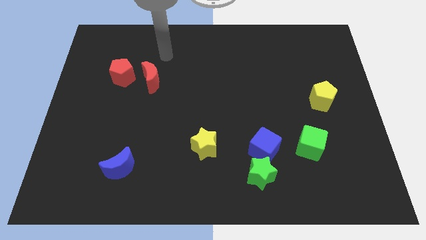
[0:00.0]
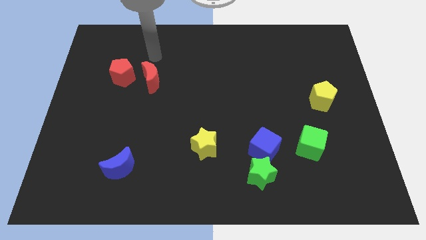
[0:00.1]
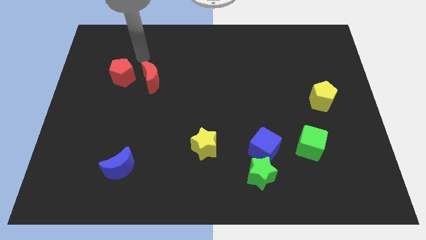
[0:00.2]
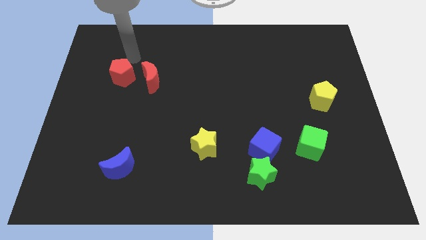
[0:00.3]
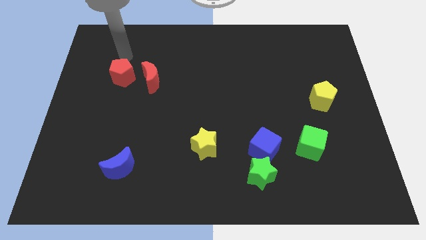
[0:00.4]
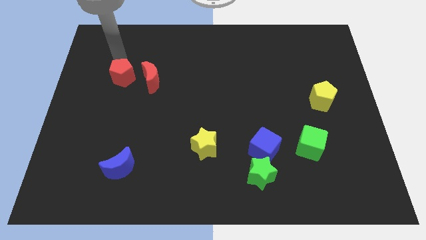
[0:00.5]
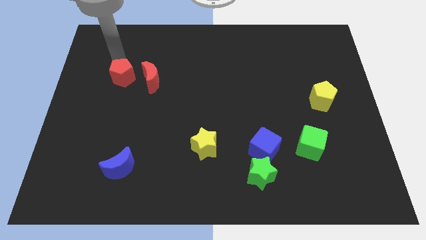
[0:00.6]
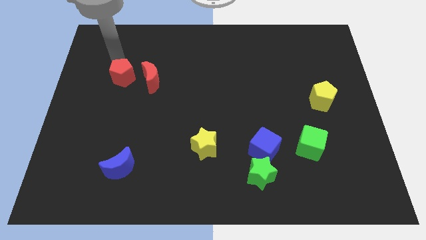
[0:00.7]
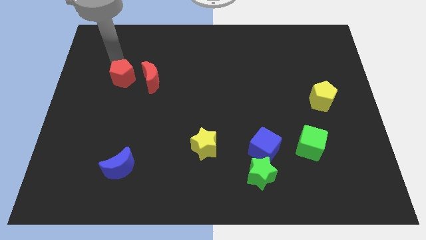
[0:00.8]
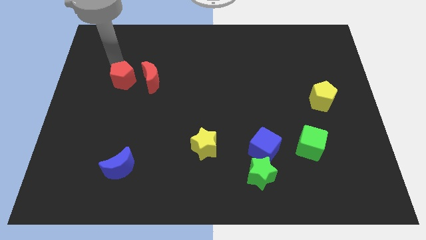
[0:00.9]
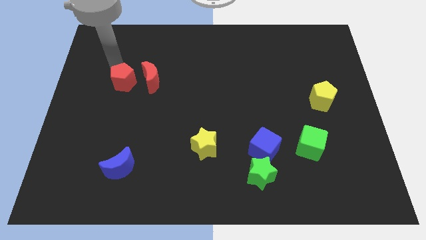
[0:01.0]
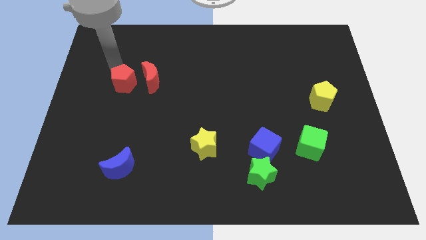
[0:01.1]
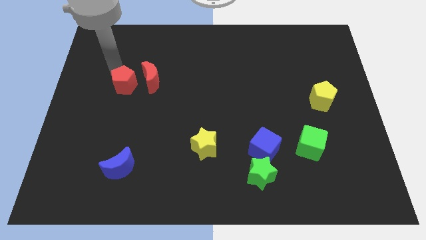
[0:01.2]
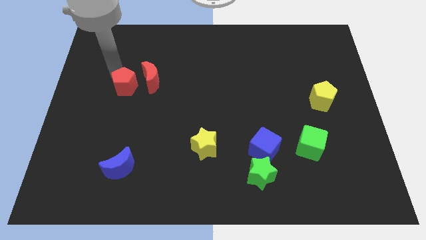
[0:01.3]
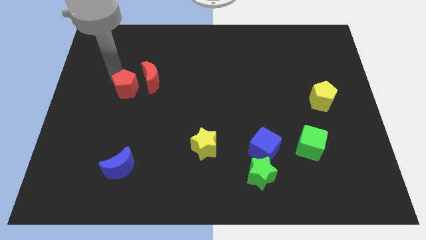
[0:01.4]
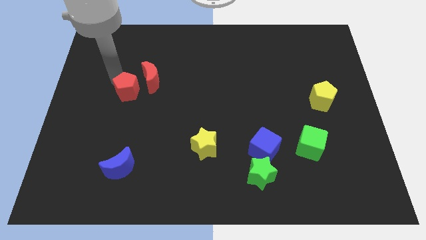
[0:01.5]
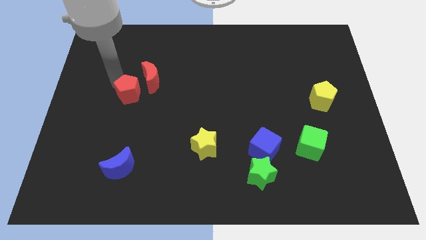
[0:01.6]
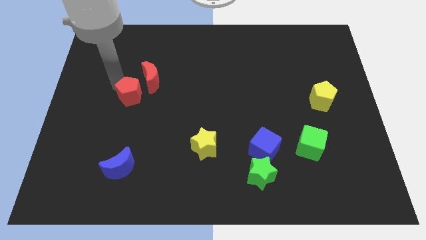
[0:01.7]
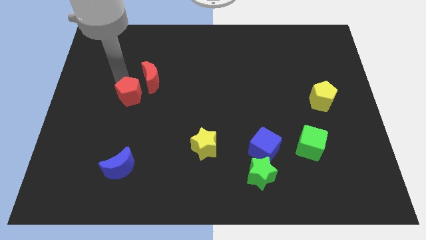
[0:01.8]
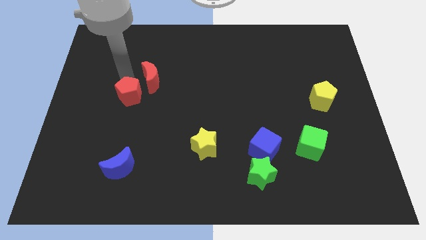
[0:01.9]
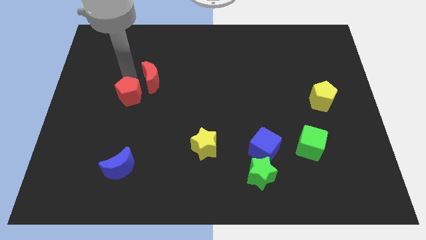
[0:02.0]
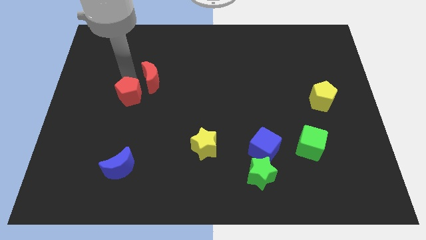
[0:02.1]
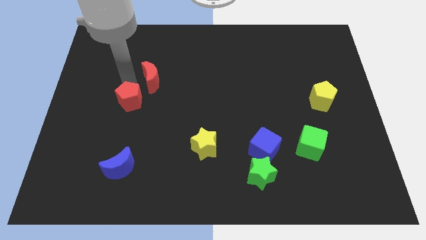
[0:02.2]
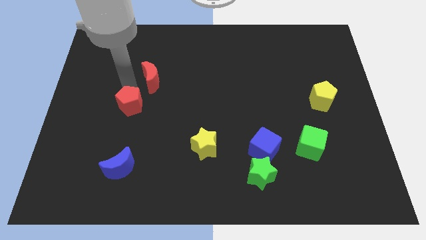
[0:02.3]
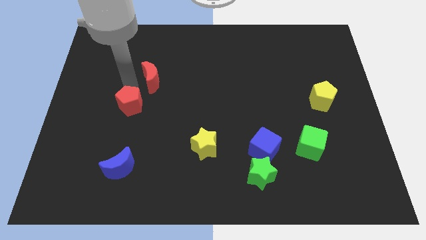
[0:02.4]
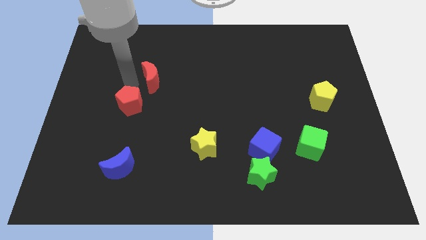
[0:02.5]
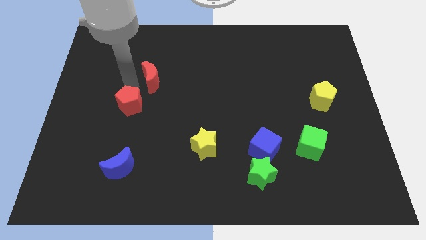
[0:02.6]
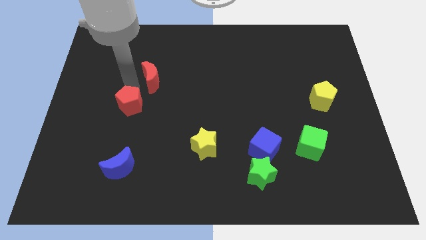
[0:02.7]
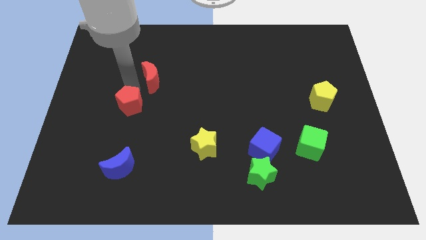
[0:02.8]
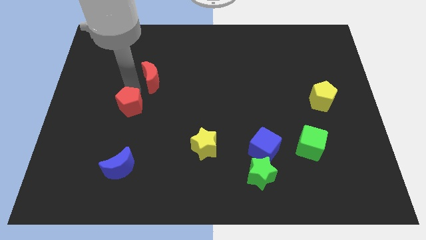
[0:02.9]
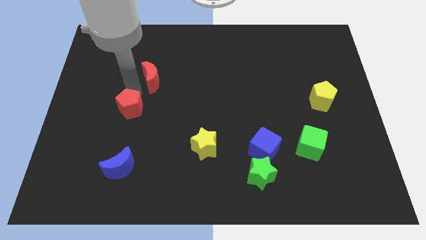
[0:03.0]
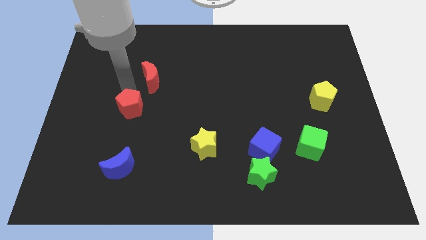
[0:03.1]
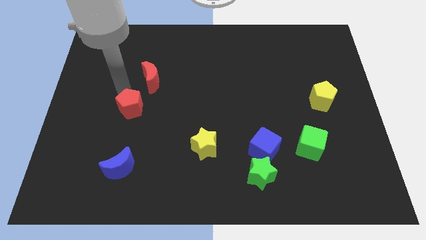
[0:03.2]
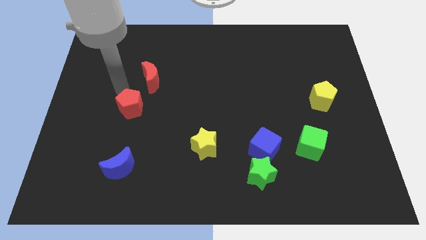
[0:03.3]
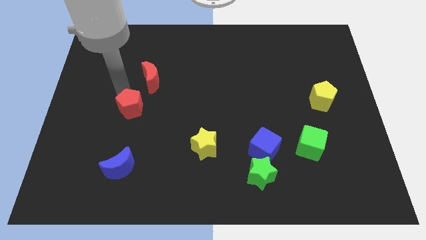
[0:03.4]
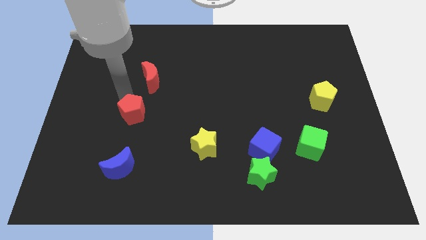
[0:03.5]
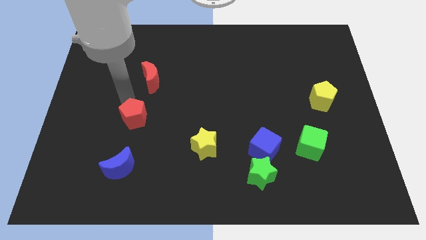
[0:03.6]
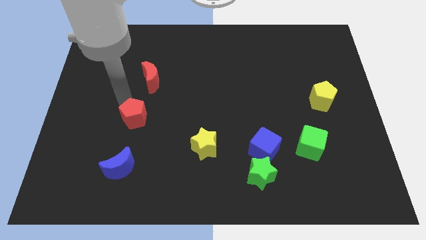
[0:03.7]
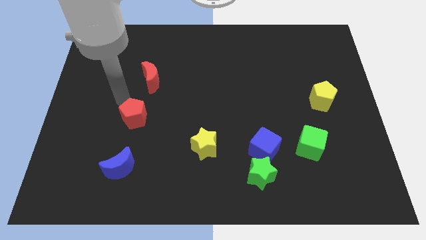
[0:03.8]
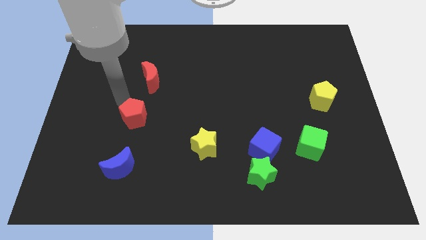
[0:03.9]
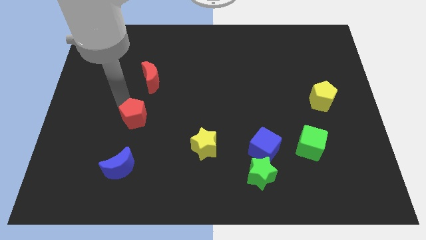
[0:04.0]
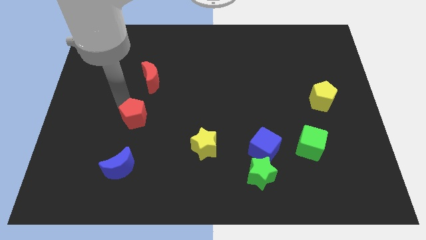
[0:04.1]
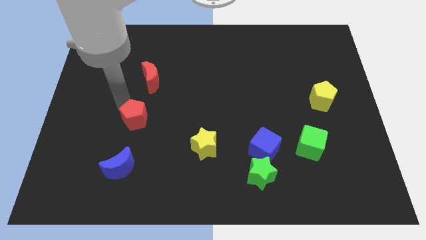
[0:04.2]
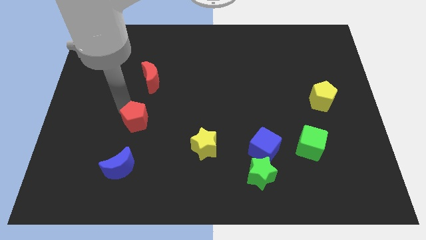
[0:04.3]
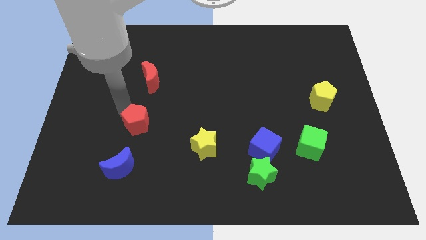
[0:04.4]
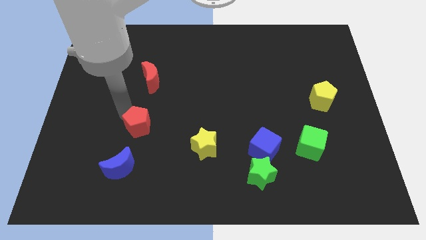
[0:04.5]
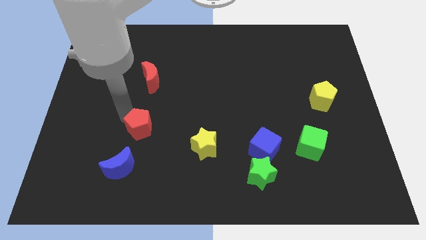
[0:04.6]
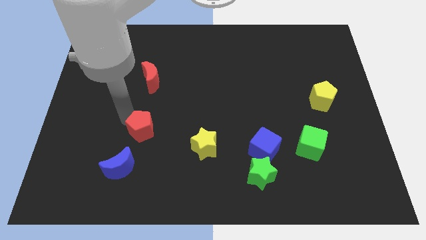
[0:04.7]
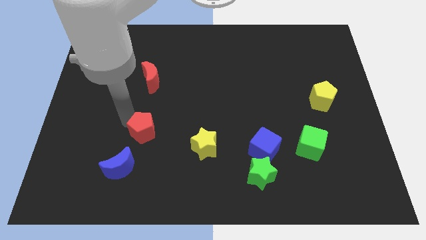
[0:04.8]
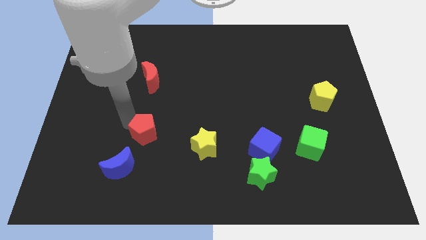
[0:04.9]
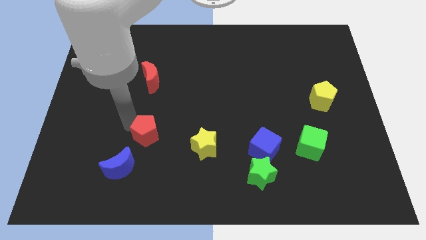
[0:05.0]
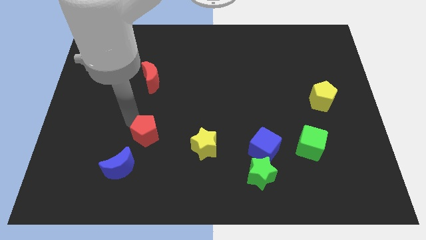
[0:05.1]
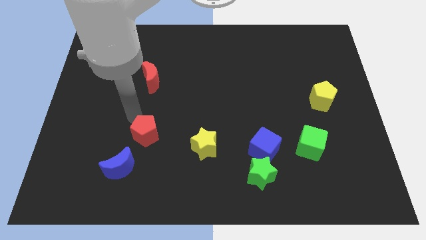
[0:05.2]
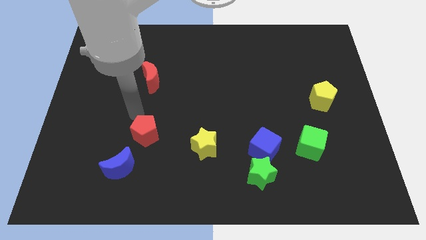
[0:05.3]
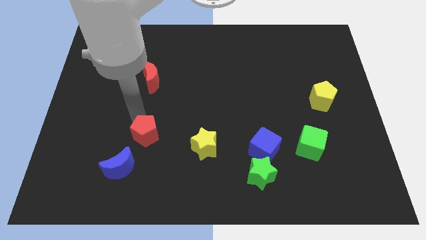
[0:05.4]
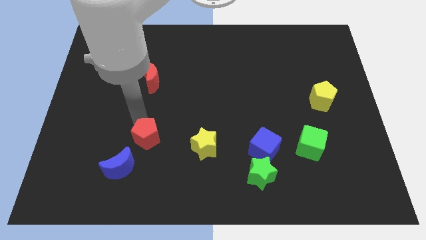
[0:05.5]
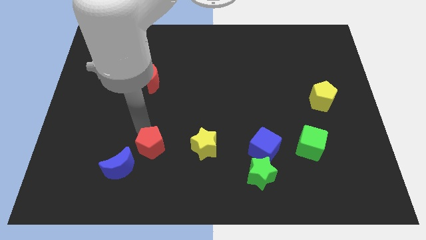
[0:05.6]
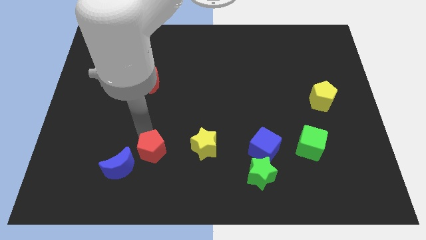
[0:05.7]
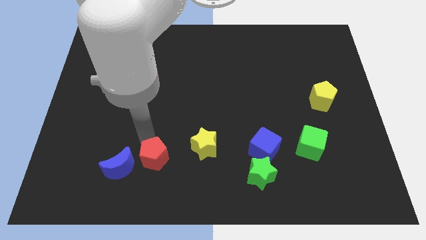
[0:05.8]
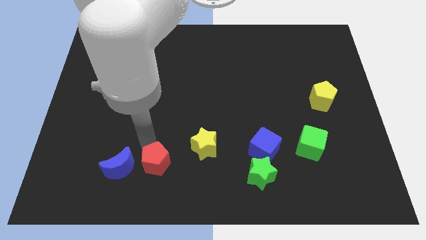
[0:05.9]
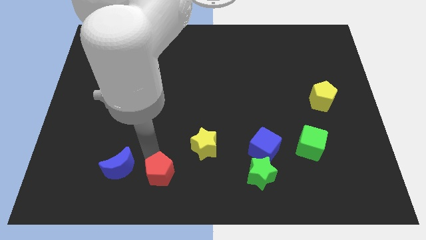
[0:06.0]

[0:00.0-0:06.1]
push the red pentagon to the bottom

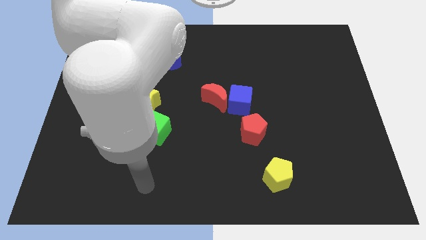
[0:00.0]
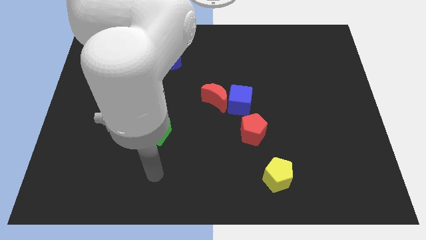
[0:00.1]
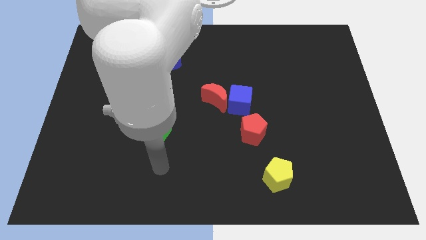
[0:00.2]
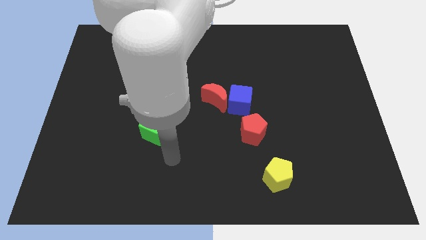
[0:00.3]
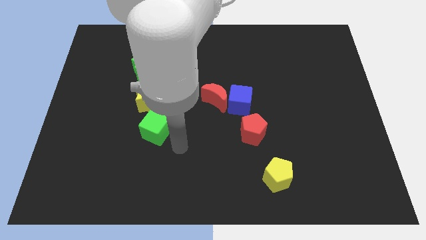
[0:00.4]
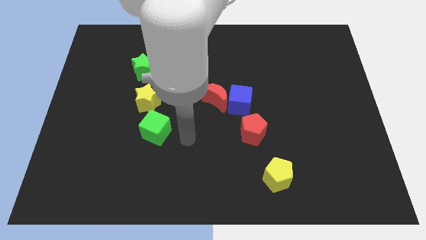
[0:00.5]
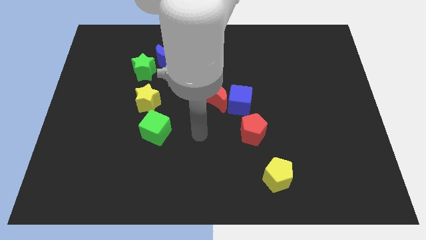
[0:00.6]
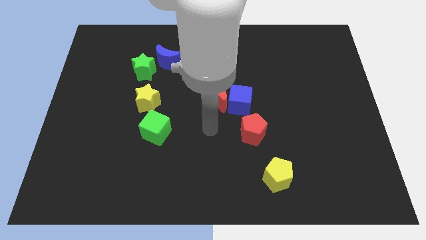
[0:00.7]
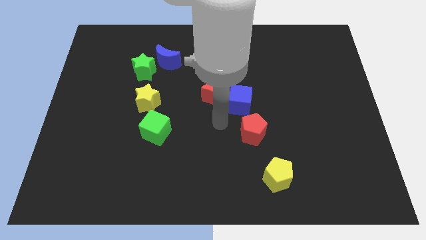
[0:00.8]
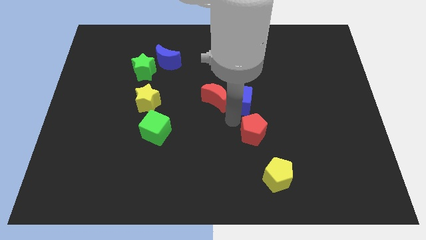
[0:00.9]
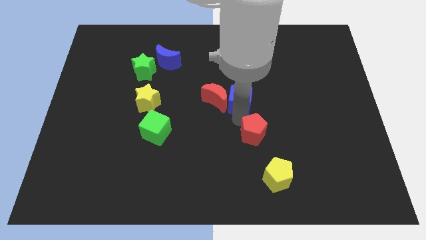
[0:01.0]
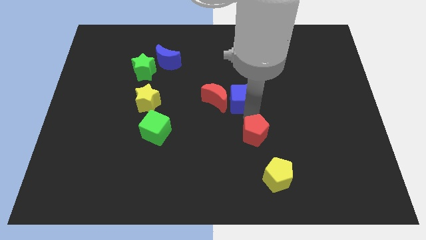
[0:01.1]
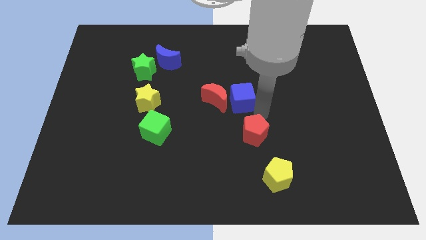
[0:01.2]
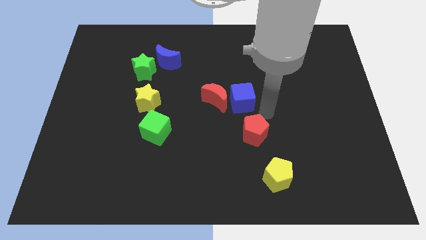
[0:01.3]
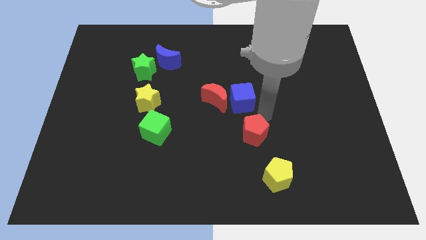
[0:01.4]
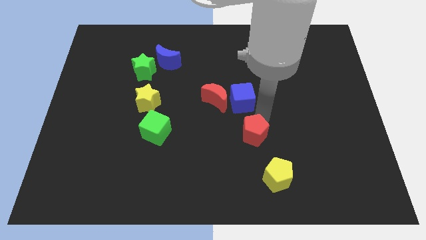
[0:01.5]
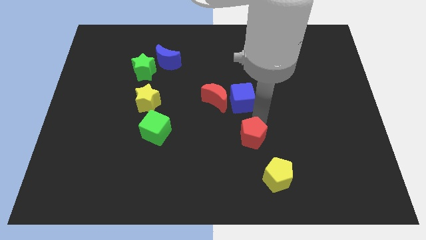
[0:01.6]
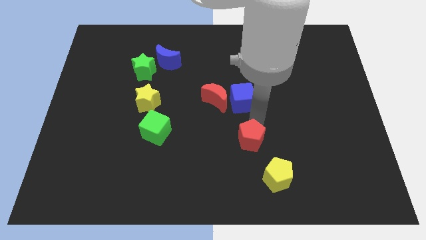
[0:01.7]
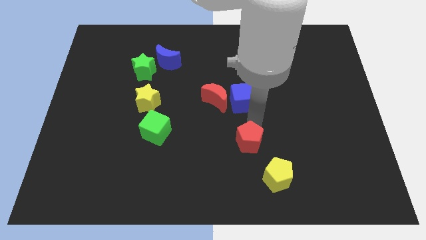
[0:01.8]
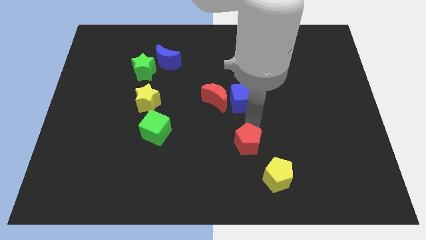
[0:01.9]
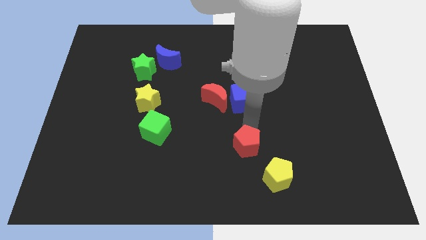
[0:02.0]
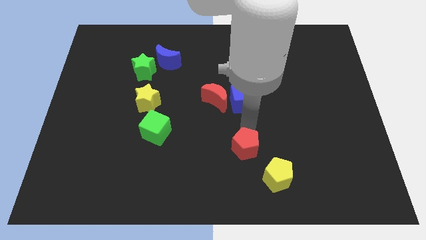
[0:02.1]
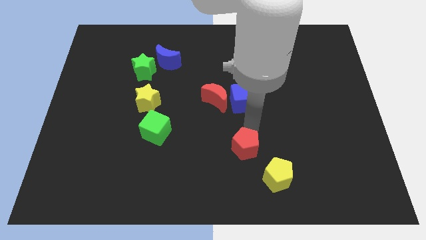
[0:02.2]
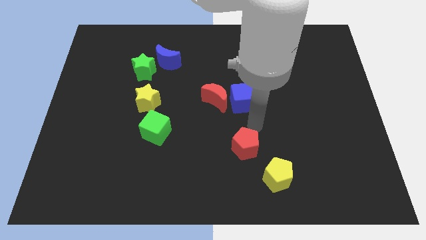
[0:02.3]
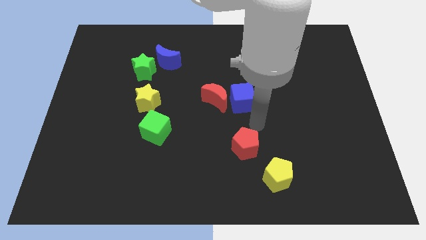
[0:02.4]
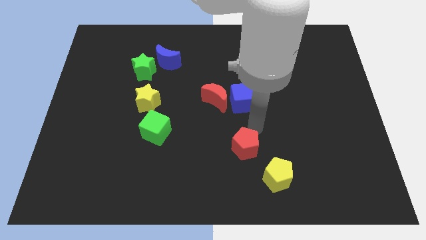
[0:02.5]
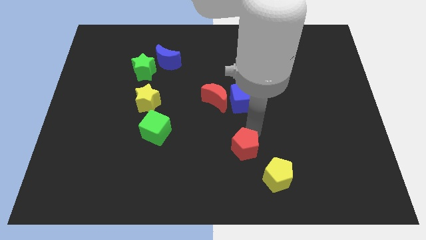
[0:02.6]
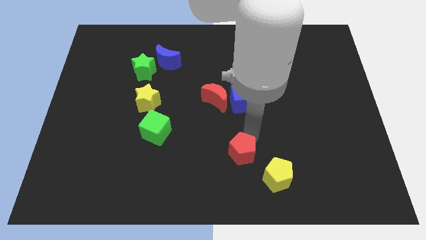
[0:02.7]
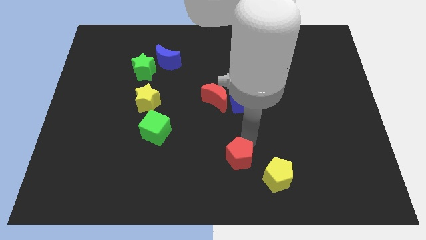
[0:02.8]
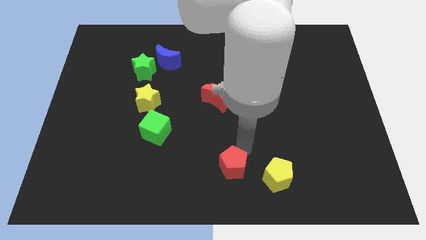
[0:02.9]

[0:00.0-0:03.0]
put the red pentagon to the bottom side
